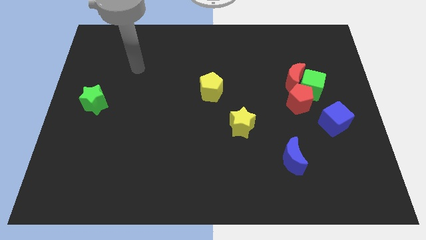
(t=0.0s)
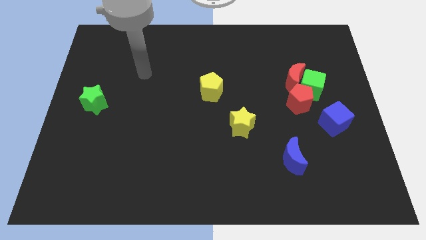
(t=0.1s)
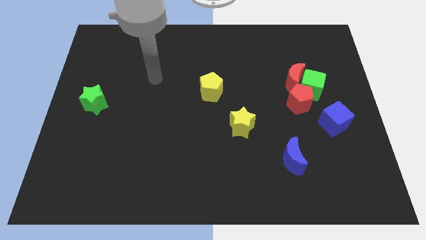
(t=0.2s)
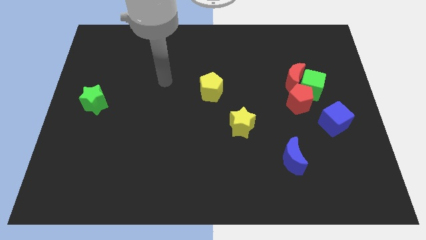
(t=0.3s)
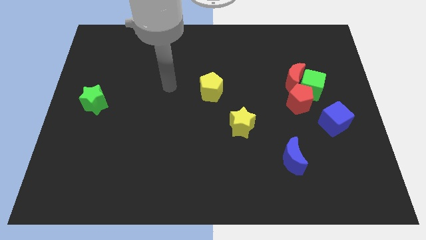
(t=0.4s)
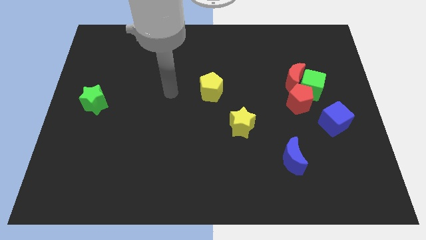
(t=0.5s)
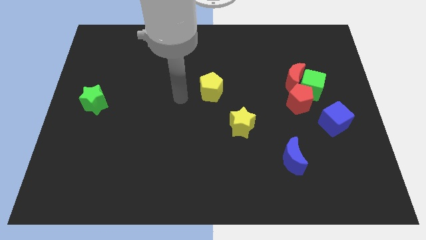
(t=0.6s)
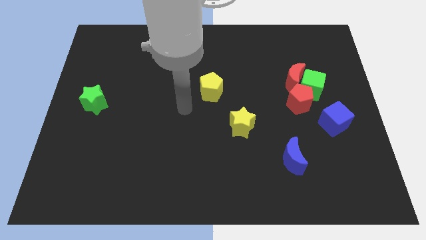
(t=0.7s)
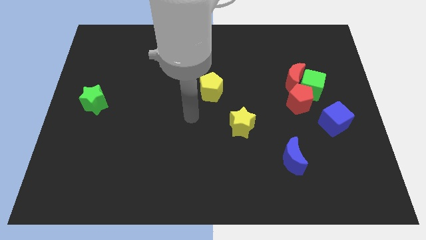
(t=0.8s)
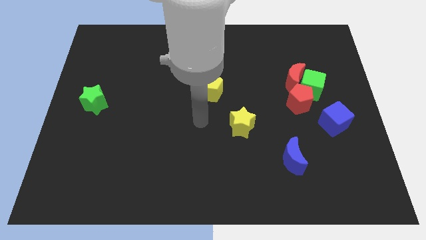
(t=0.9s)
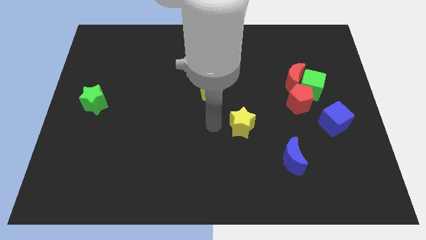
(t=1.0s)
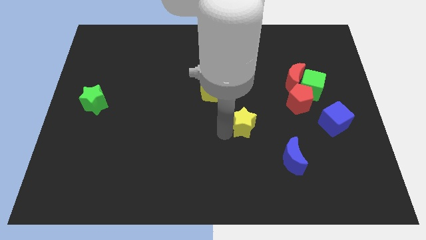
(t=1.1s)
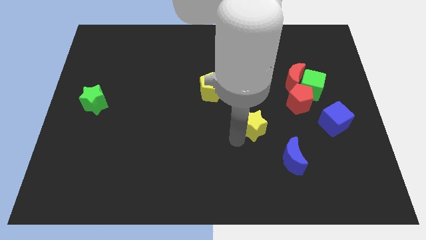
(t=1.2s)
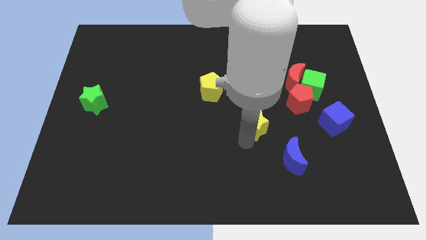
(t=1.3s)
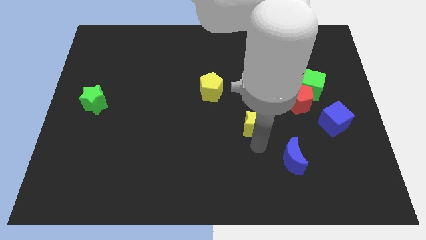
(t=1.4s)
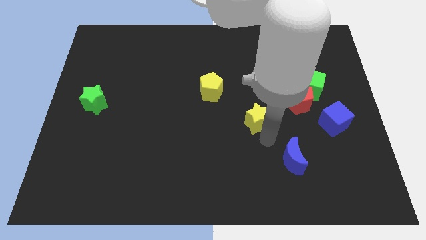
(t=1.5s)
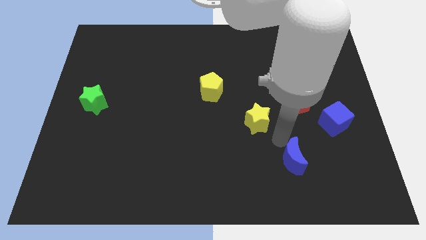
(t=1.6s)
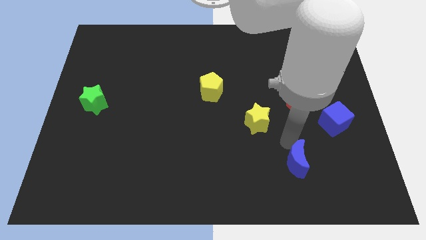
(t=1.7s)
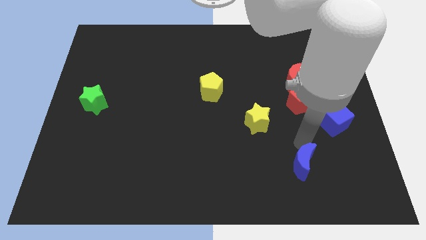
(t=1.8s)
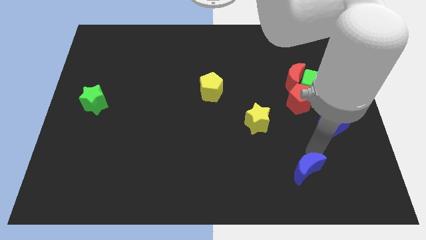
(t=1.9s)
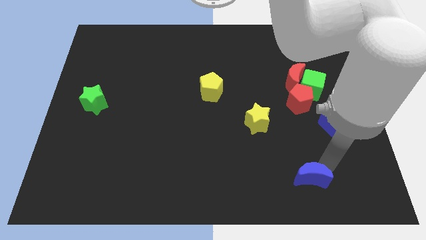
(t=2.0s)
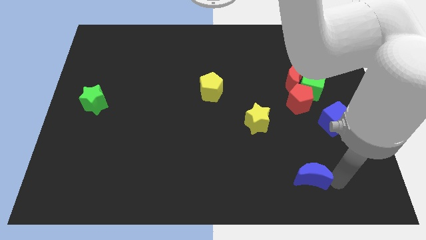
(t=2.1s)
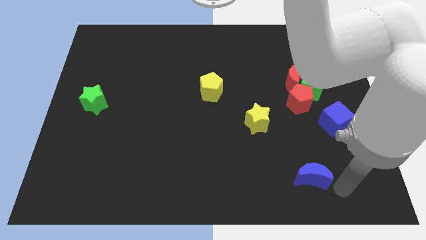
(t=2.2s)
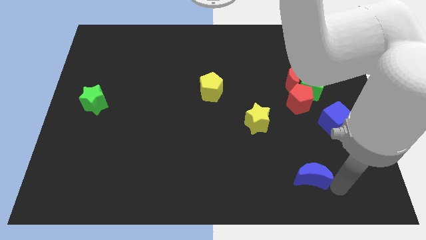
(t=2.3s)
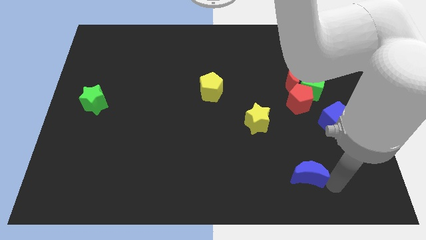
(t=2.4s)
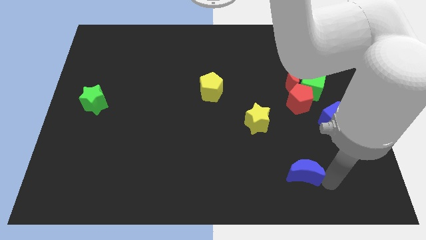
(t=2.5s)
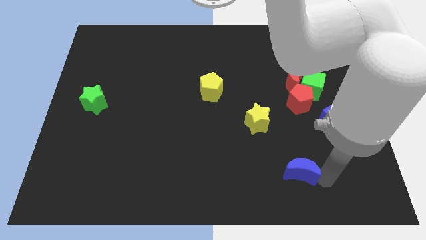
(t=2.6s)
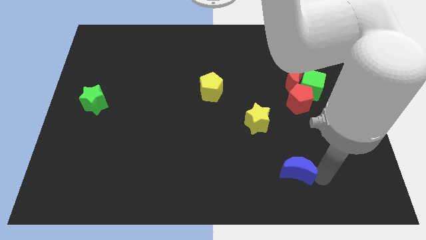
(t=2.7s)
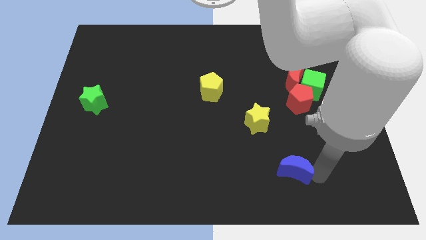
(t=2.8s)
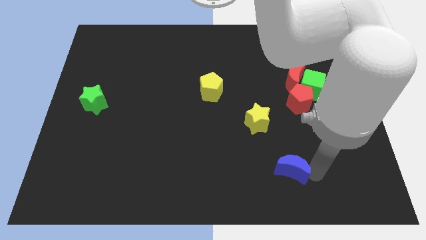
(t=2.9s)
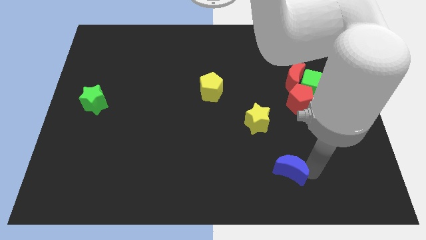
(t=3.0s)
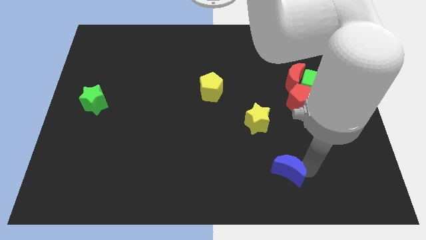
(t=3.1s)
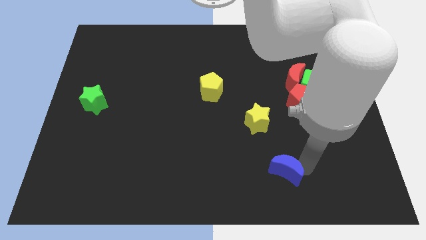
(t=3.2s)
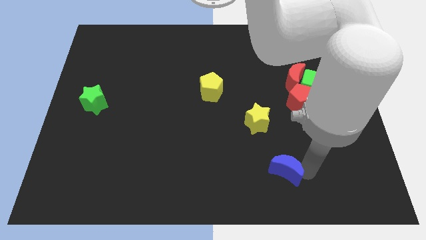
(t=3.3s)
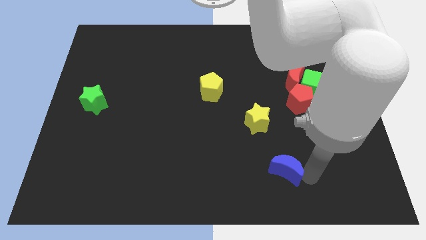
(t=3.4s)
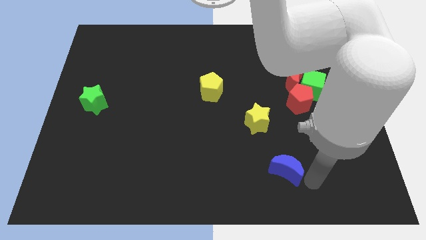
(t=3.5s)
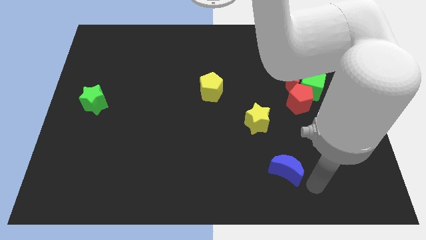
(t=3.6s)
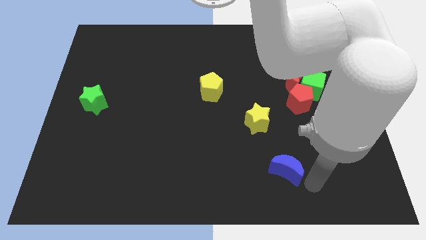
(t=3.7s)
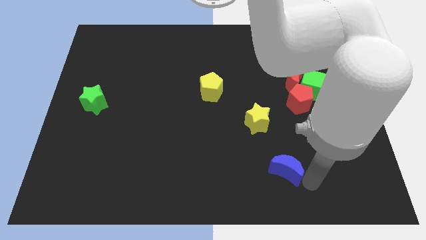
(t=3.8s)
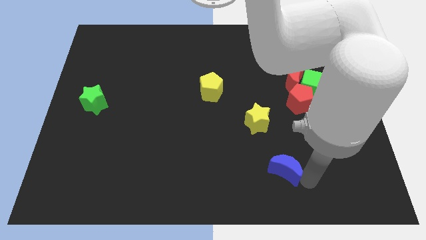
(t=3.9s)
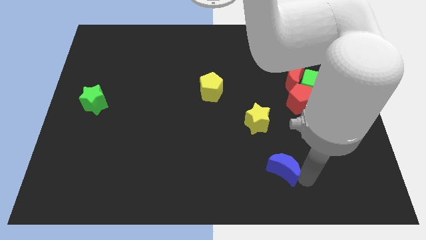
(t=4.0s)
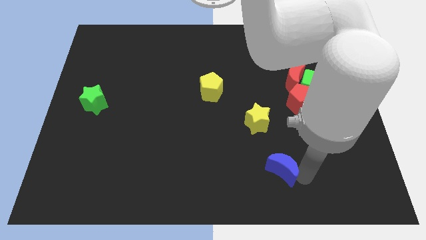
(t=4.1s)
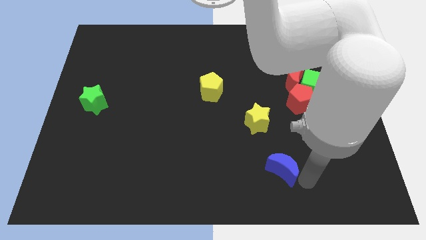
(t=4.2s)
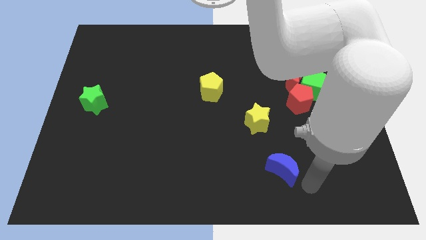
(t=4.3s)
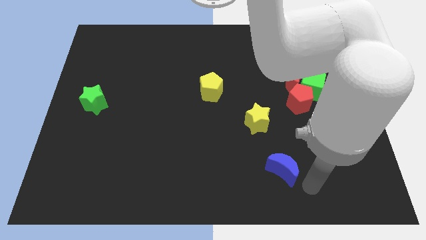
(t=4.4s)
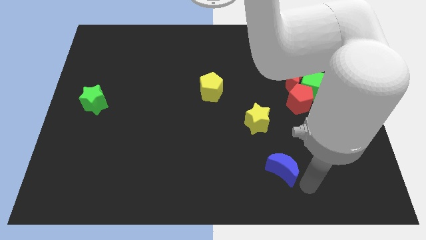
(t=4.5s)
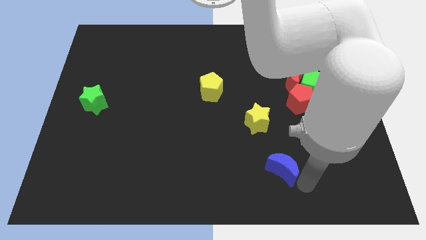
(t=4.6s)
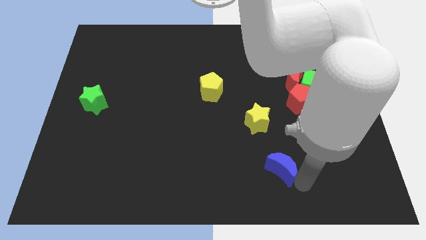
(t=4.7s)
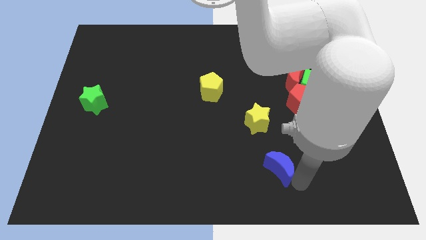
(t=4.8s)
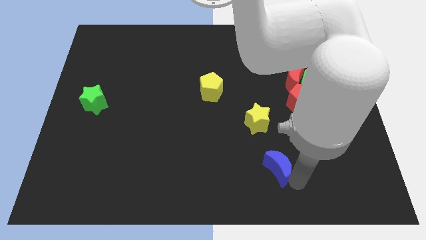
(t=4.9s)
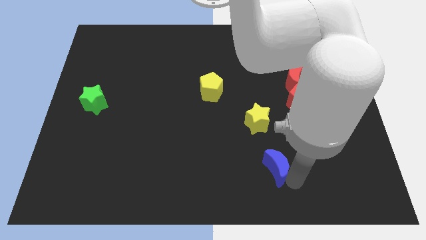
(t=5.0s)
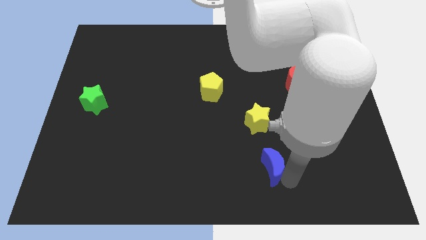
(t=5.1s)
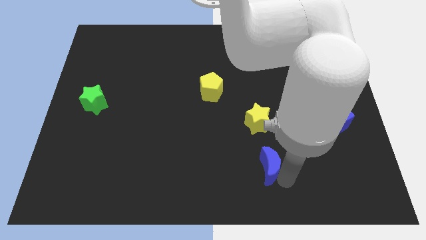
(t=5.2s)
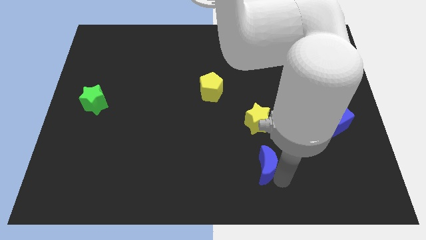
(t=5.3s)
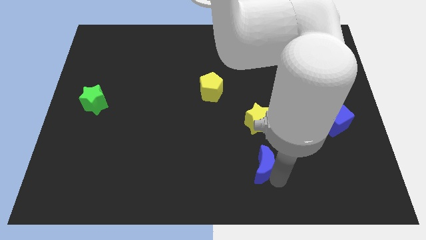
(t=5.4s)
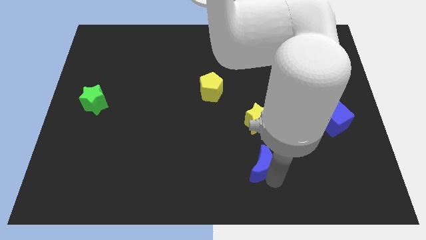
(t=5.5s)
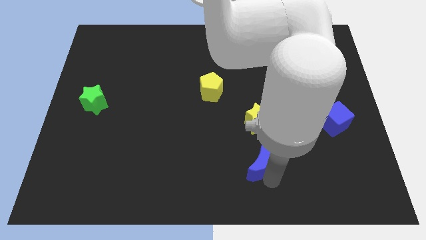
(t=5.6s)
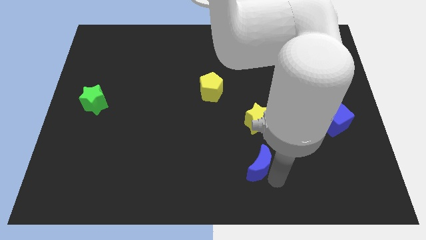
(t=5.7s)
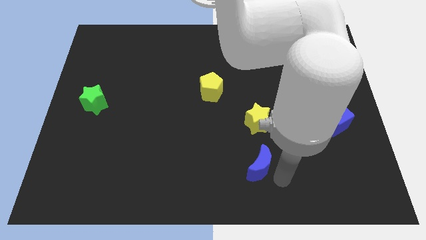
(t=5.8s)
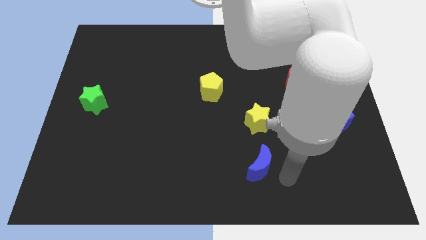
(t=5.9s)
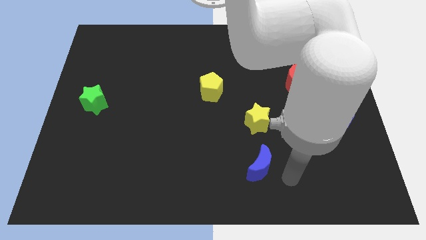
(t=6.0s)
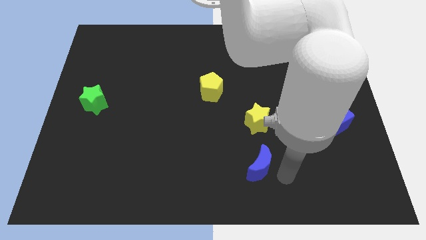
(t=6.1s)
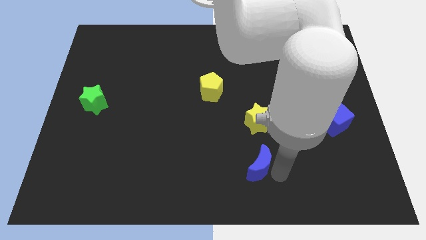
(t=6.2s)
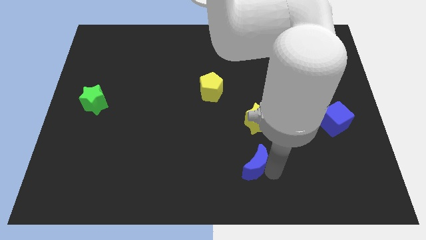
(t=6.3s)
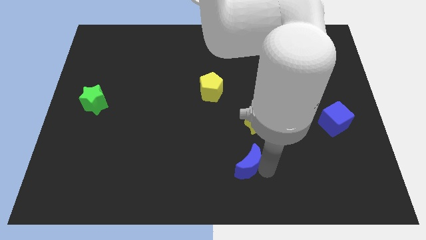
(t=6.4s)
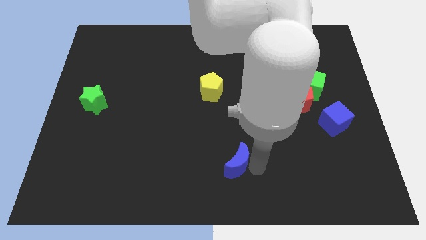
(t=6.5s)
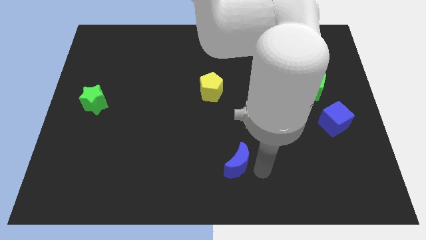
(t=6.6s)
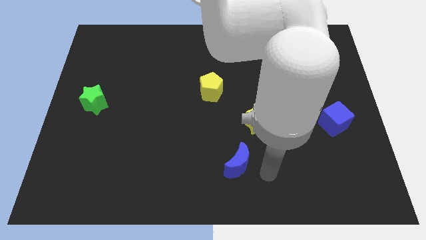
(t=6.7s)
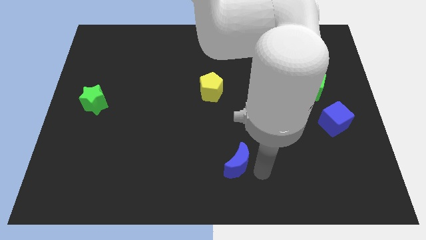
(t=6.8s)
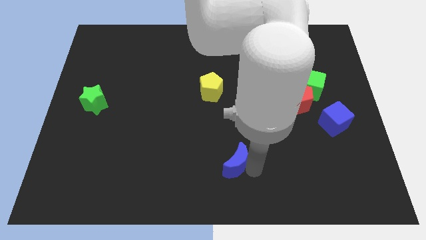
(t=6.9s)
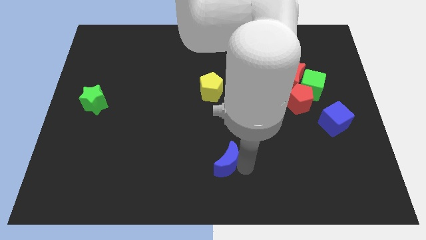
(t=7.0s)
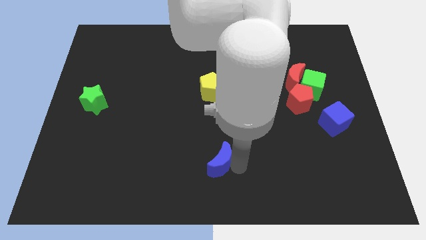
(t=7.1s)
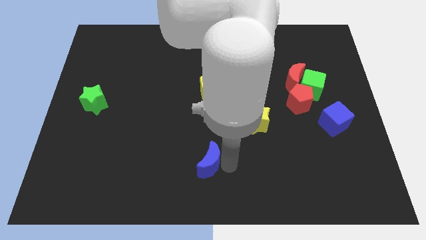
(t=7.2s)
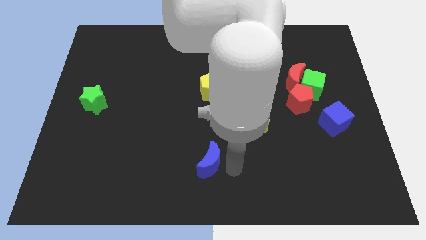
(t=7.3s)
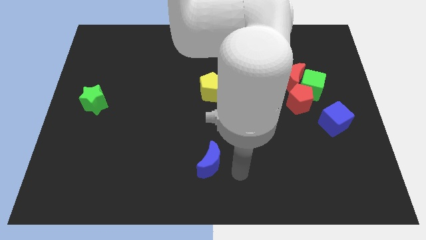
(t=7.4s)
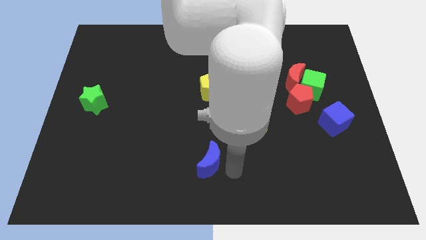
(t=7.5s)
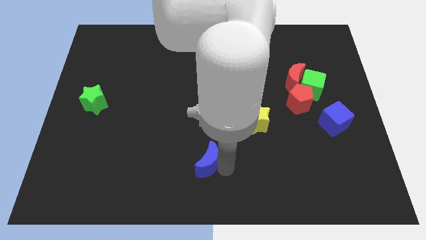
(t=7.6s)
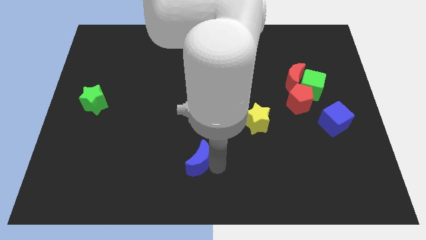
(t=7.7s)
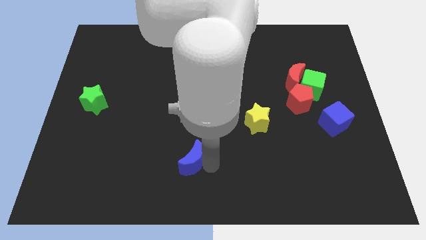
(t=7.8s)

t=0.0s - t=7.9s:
slide the blue moon to the left
